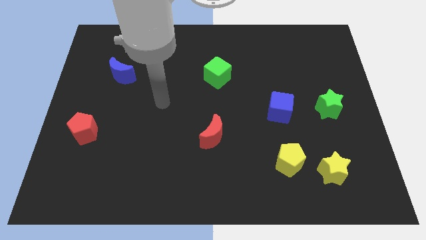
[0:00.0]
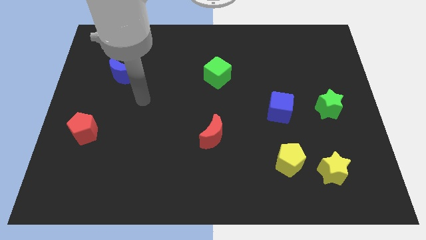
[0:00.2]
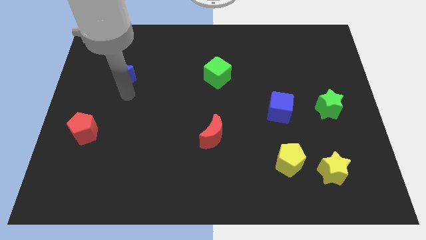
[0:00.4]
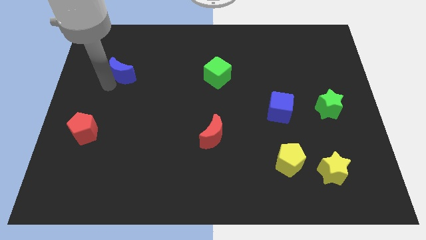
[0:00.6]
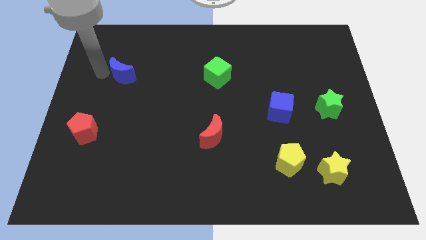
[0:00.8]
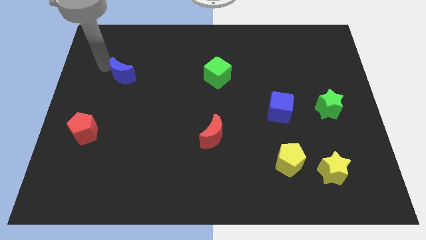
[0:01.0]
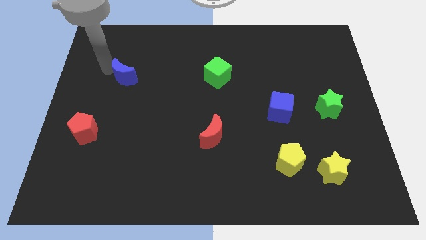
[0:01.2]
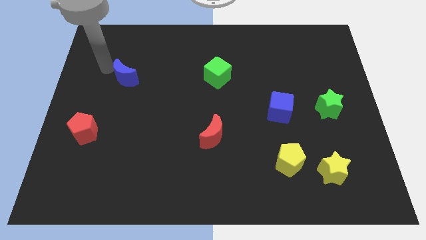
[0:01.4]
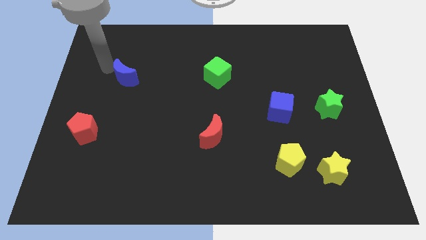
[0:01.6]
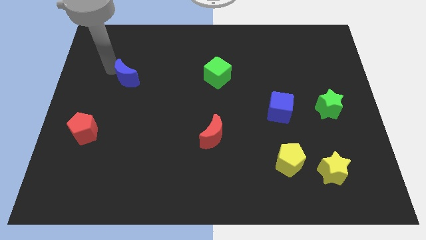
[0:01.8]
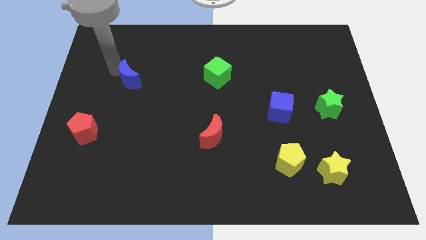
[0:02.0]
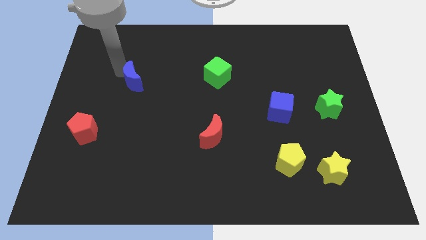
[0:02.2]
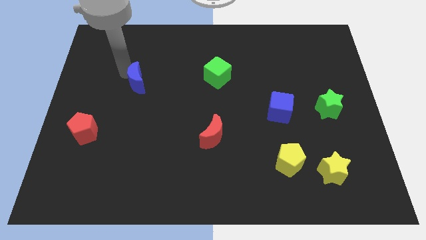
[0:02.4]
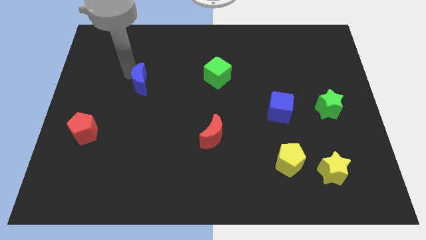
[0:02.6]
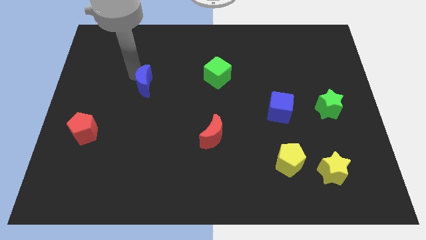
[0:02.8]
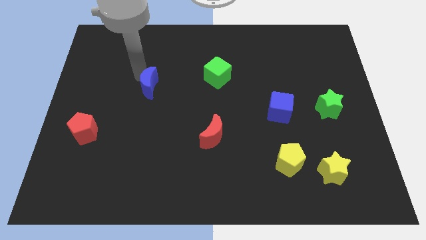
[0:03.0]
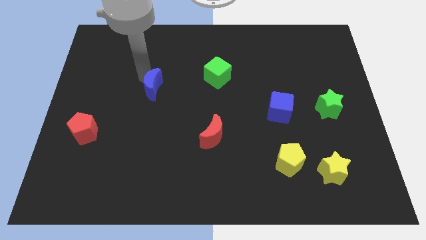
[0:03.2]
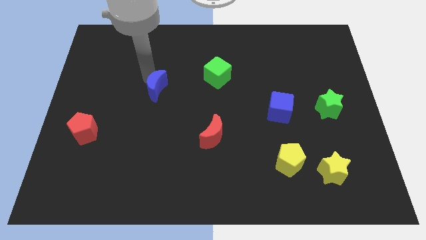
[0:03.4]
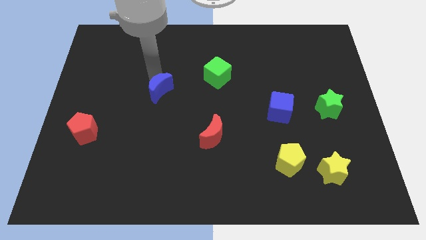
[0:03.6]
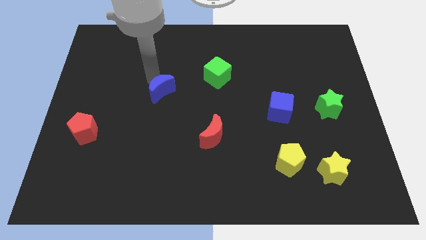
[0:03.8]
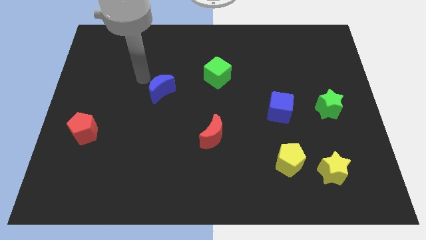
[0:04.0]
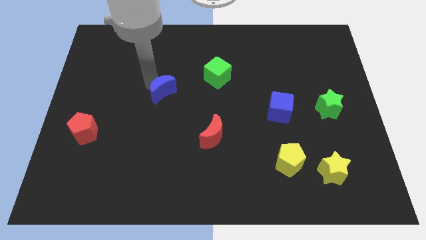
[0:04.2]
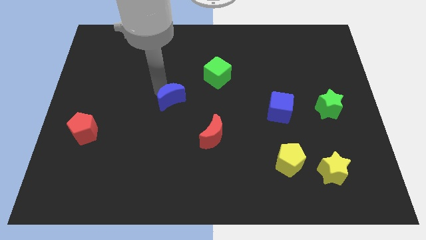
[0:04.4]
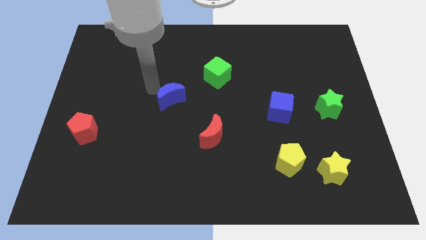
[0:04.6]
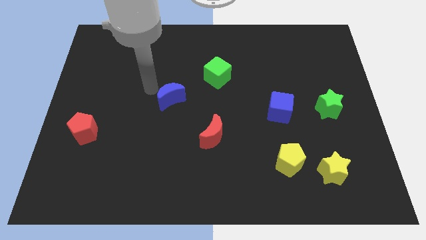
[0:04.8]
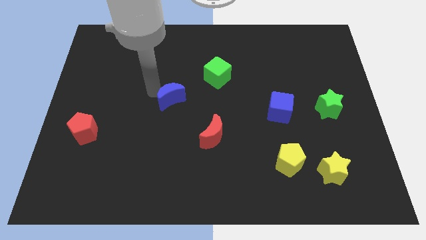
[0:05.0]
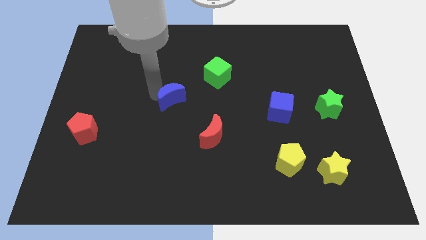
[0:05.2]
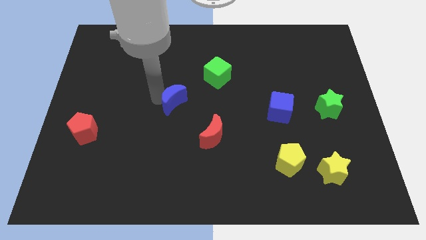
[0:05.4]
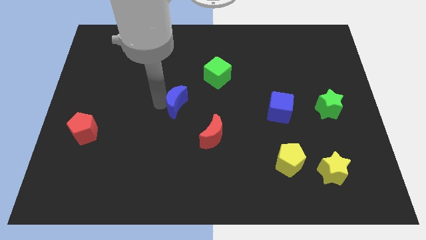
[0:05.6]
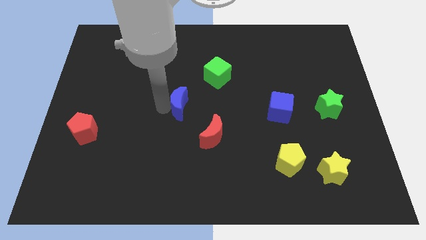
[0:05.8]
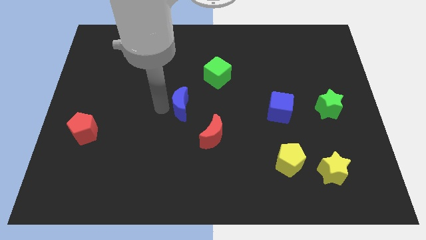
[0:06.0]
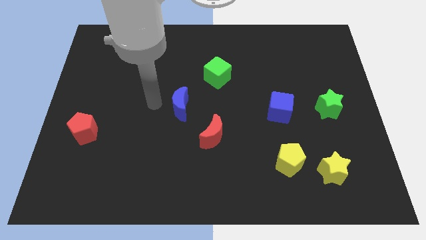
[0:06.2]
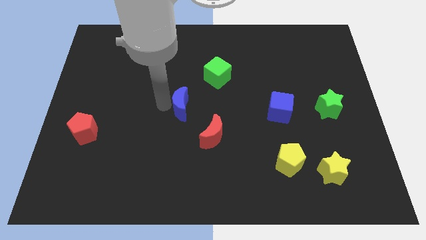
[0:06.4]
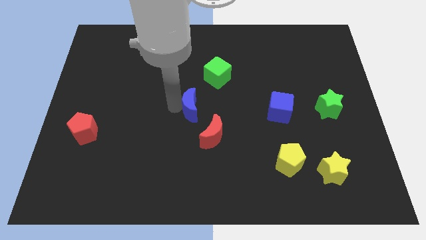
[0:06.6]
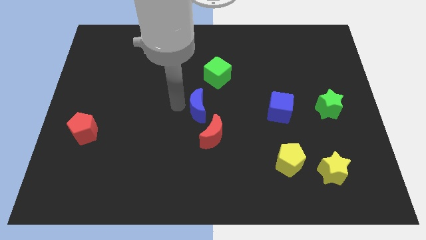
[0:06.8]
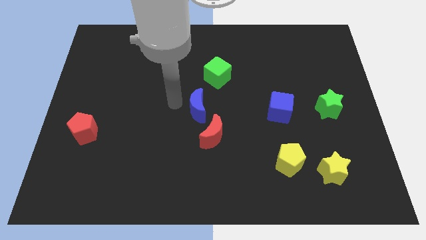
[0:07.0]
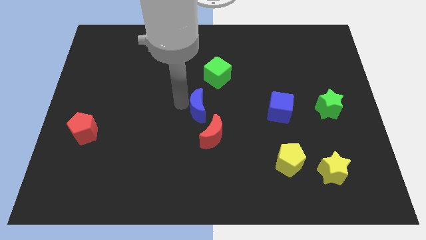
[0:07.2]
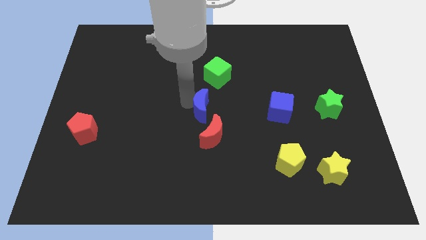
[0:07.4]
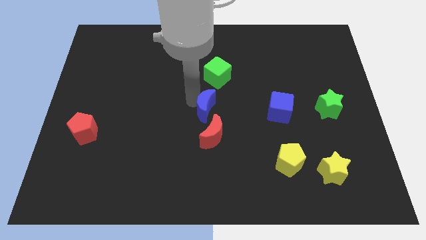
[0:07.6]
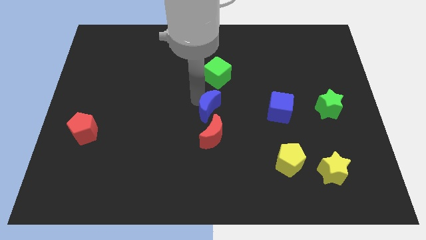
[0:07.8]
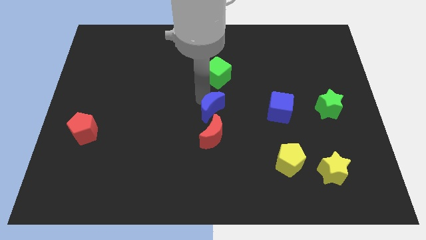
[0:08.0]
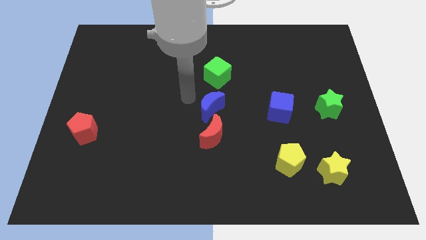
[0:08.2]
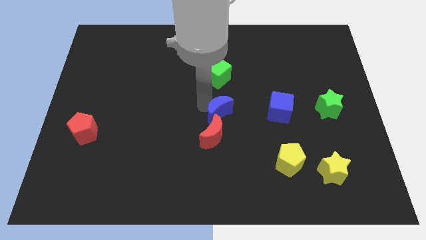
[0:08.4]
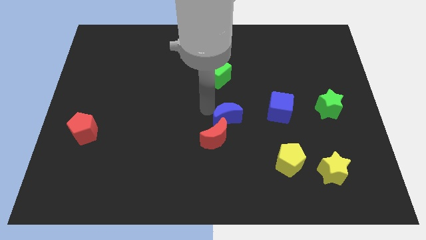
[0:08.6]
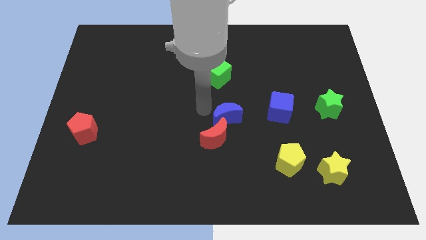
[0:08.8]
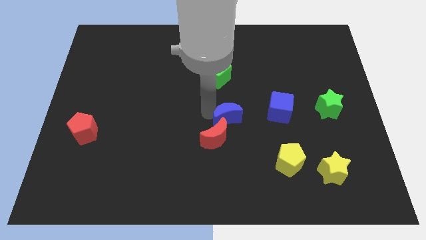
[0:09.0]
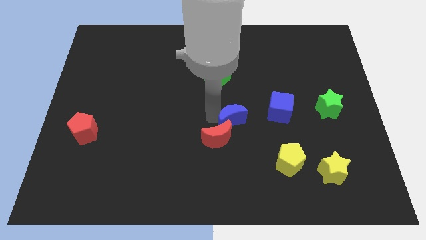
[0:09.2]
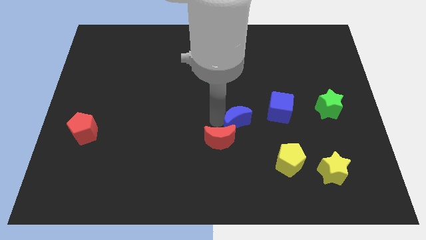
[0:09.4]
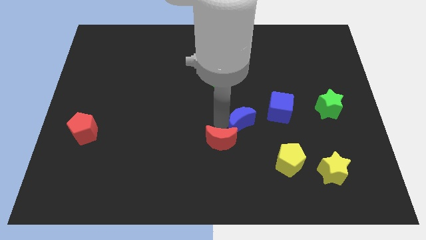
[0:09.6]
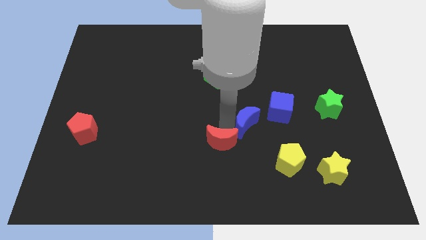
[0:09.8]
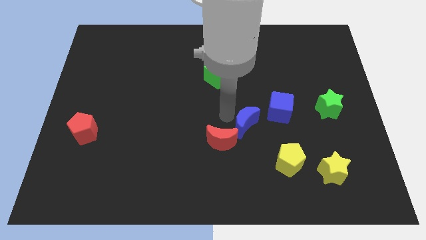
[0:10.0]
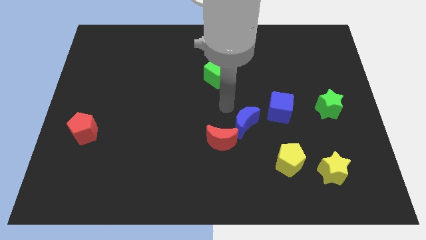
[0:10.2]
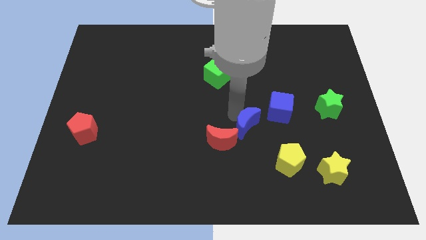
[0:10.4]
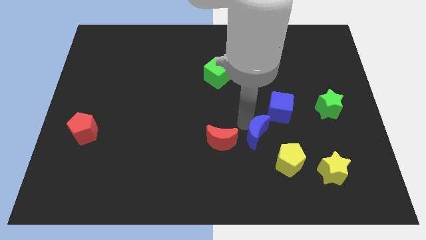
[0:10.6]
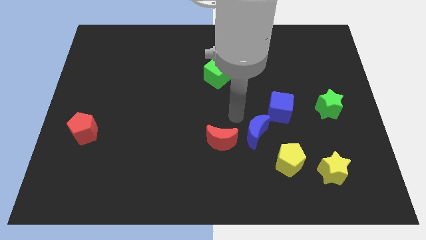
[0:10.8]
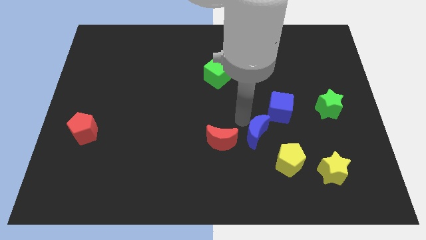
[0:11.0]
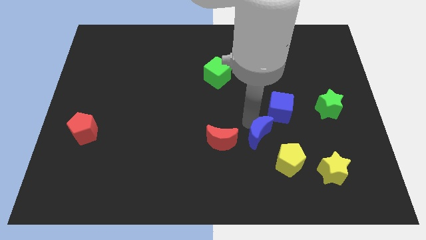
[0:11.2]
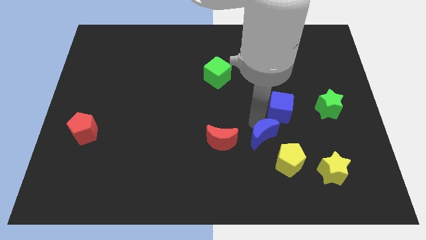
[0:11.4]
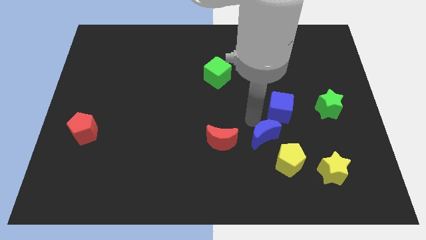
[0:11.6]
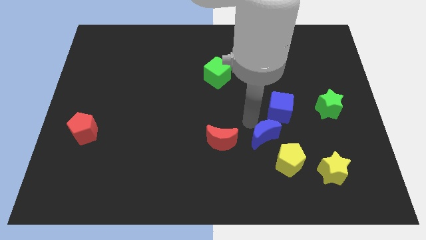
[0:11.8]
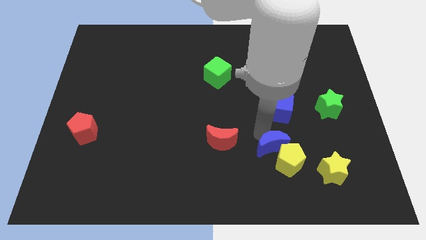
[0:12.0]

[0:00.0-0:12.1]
slide the blue moon towards the yellow pentagon

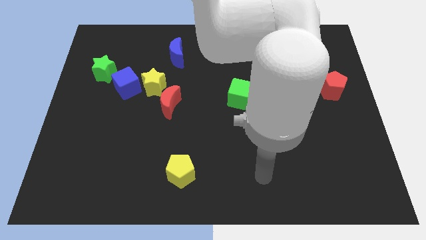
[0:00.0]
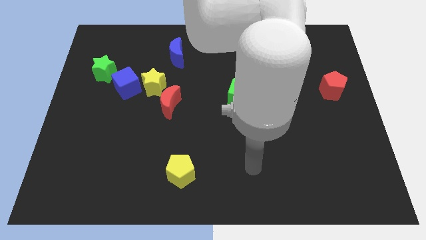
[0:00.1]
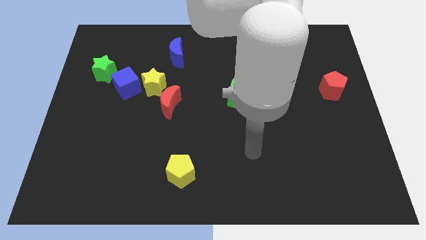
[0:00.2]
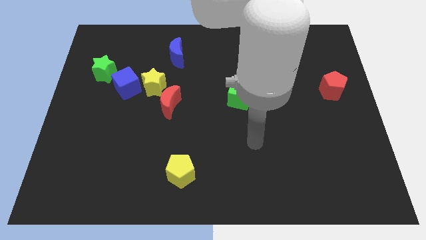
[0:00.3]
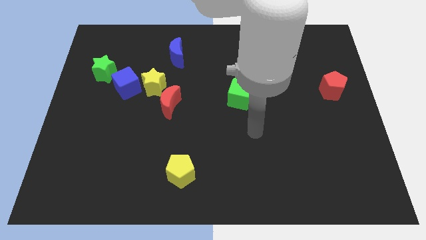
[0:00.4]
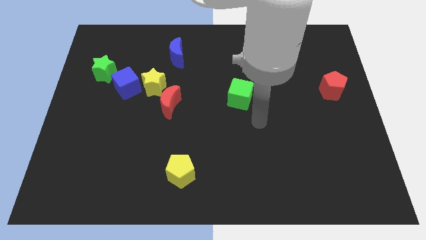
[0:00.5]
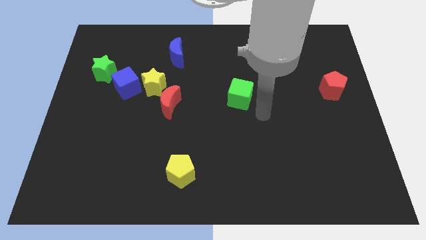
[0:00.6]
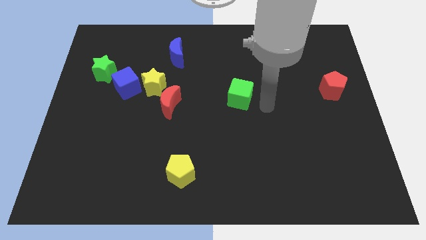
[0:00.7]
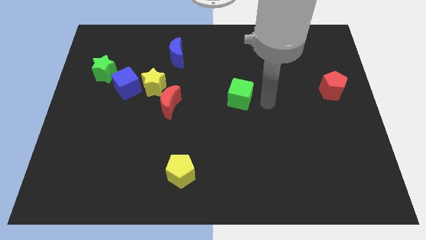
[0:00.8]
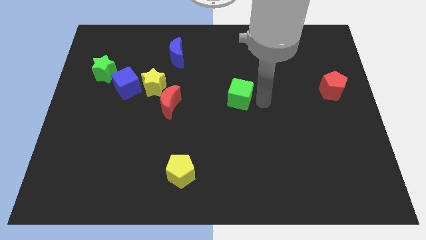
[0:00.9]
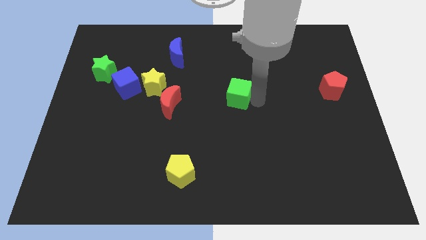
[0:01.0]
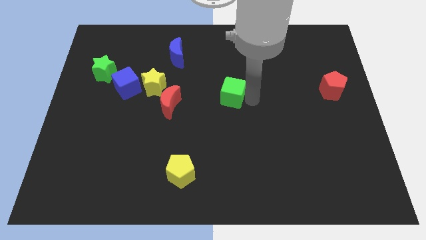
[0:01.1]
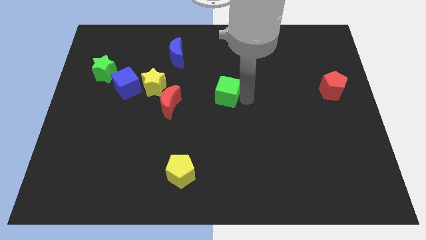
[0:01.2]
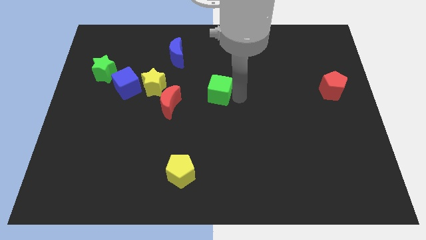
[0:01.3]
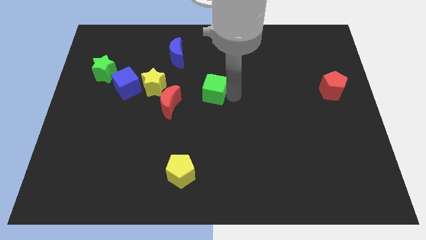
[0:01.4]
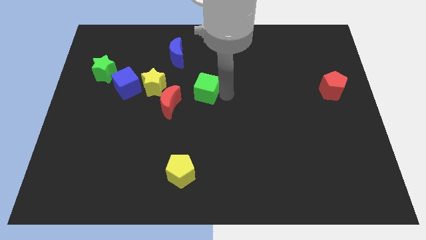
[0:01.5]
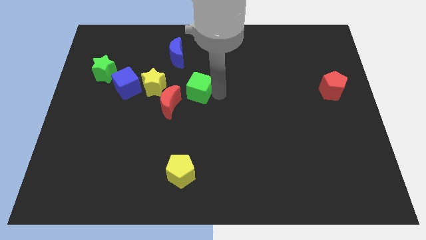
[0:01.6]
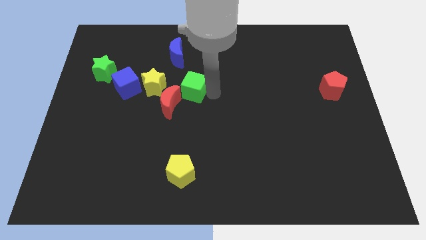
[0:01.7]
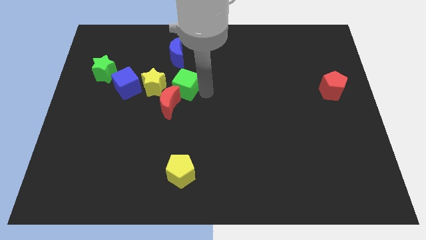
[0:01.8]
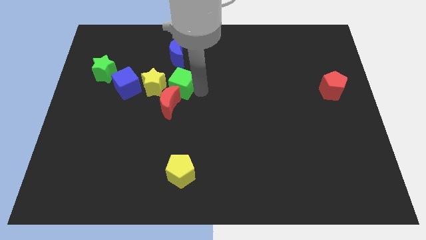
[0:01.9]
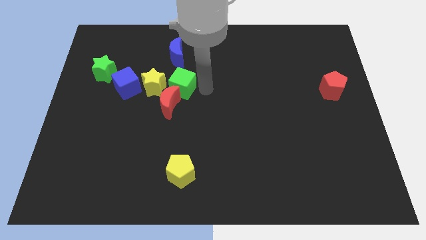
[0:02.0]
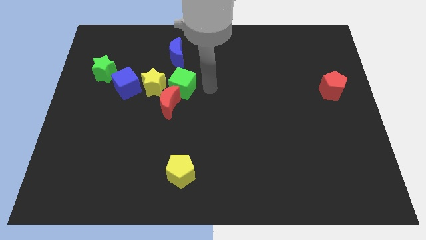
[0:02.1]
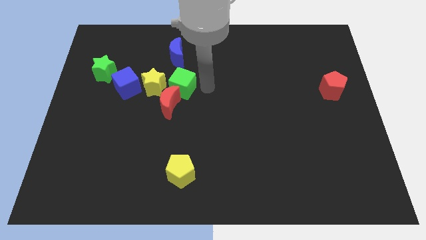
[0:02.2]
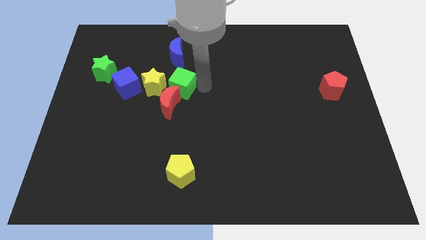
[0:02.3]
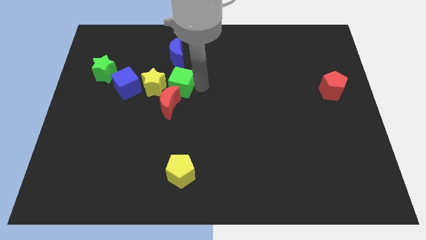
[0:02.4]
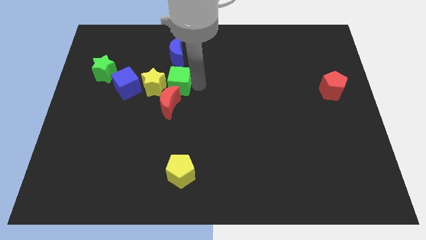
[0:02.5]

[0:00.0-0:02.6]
slide the green cube to the yellow star
